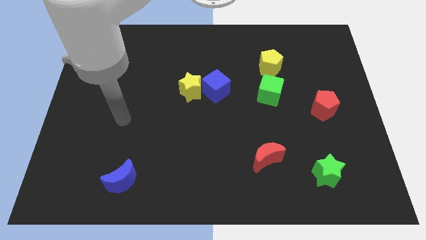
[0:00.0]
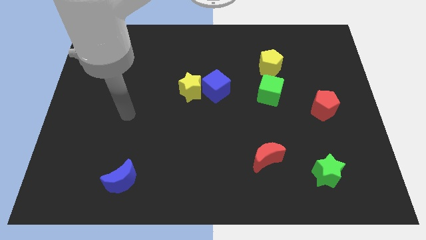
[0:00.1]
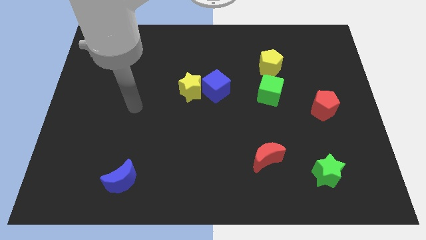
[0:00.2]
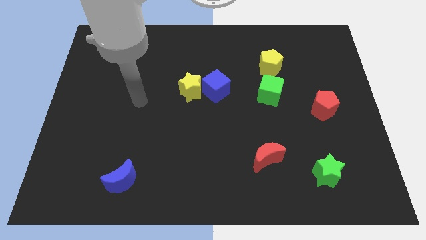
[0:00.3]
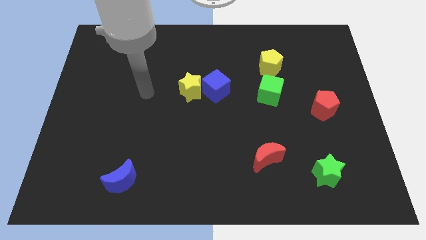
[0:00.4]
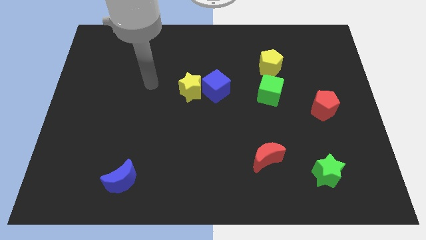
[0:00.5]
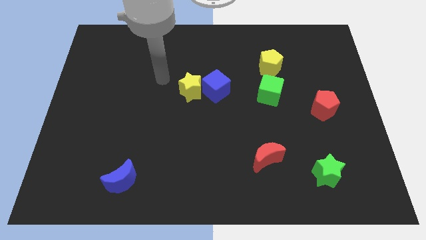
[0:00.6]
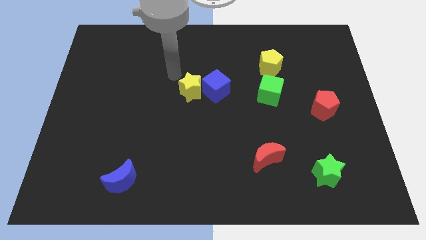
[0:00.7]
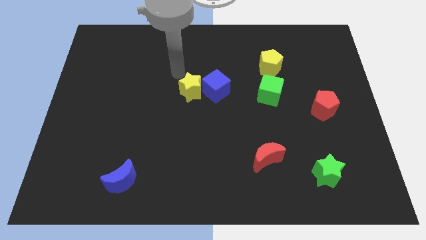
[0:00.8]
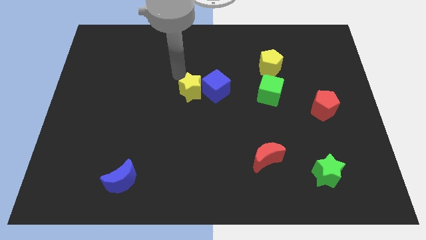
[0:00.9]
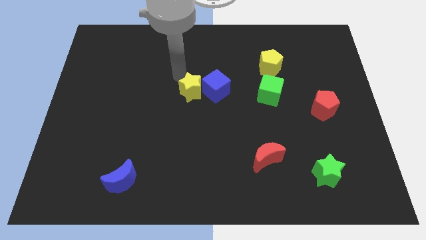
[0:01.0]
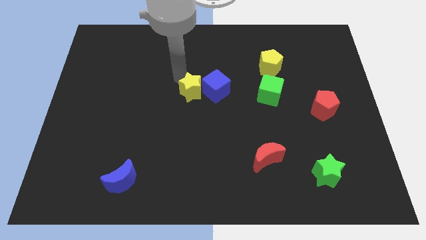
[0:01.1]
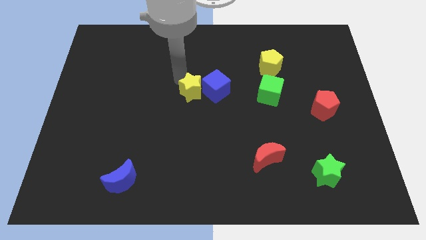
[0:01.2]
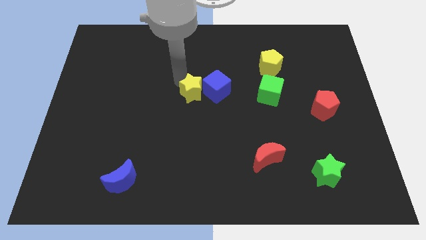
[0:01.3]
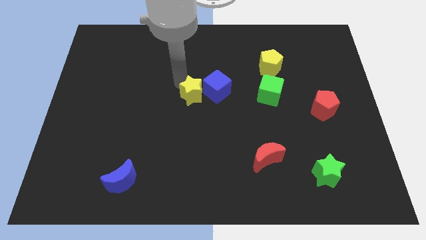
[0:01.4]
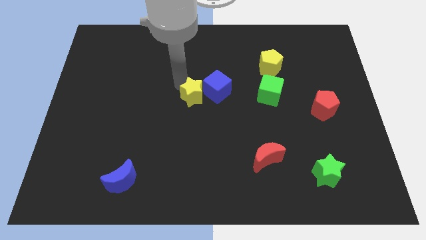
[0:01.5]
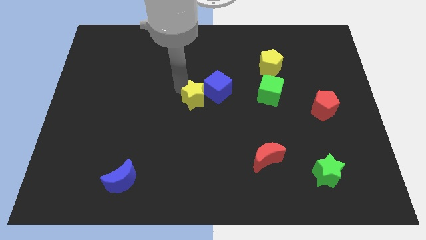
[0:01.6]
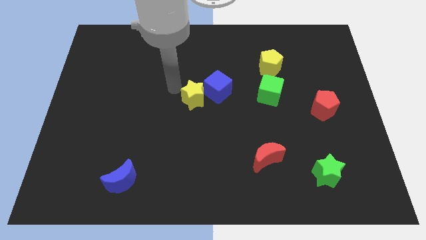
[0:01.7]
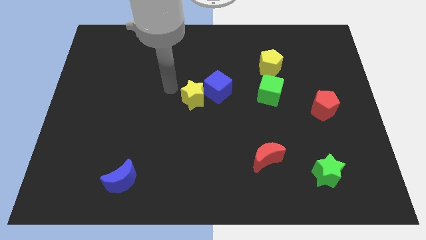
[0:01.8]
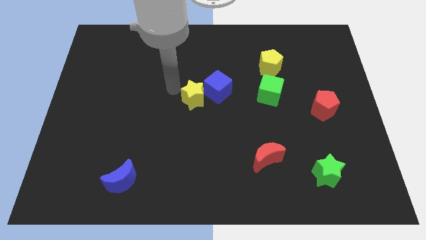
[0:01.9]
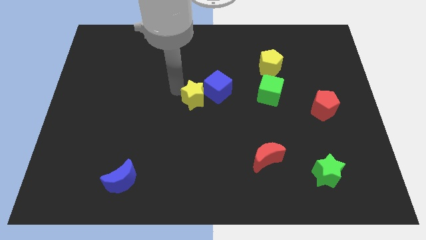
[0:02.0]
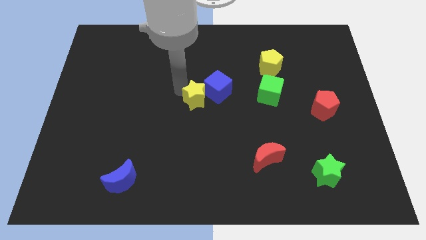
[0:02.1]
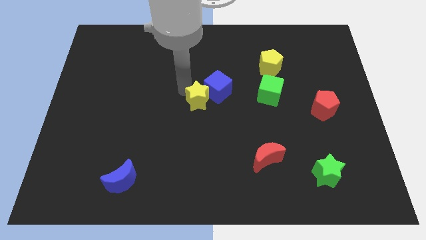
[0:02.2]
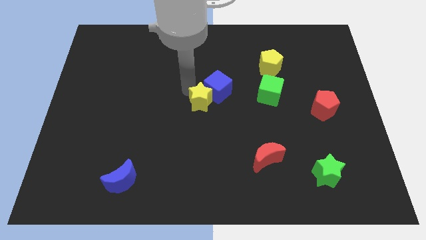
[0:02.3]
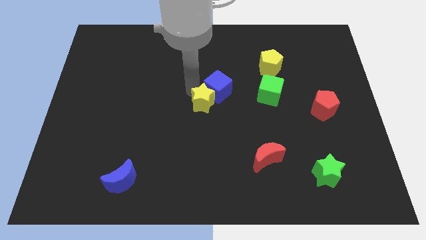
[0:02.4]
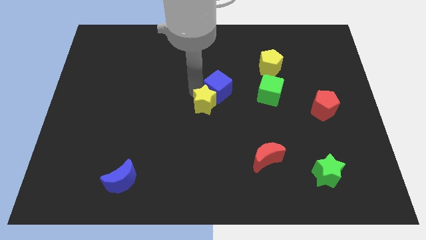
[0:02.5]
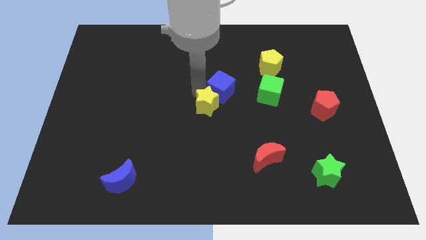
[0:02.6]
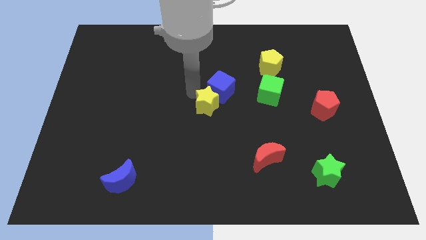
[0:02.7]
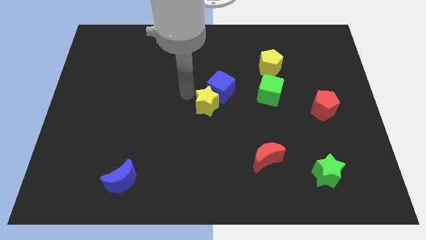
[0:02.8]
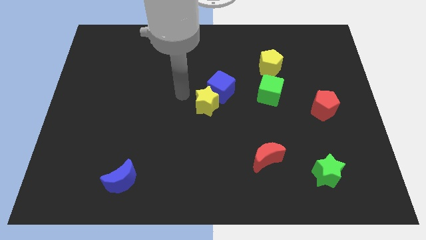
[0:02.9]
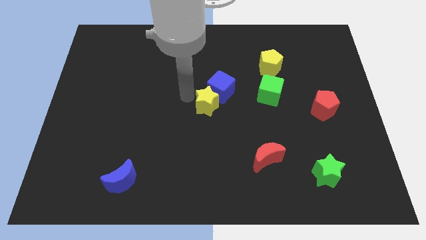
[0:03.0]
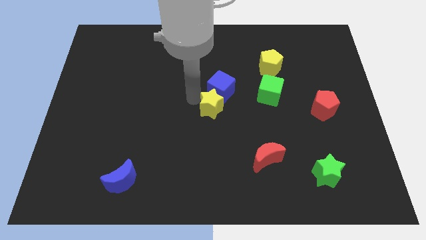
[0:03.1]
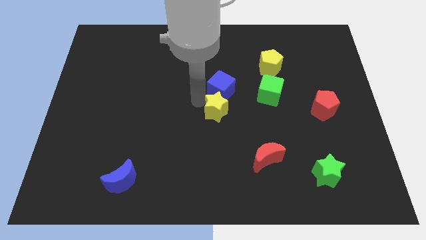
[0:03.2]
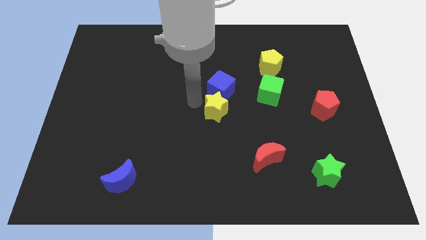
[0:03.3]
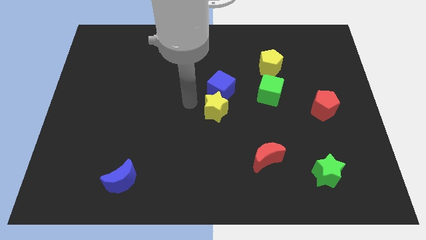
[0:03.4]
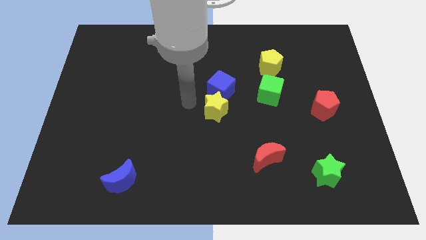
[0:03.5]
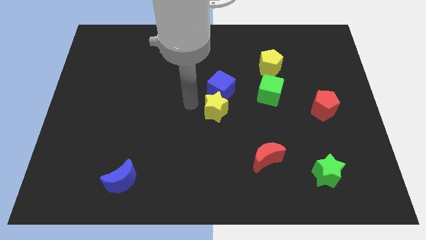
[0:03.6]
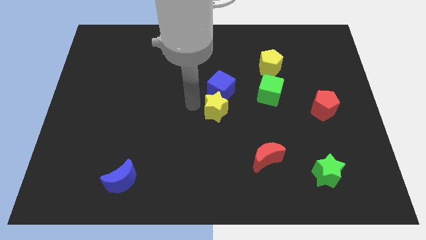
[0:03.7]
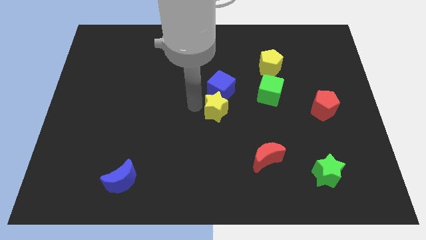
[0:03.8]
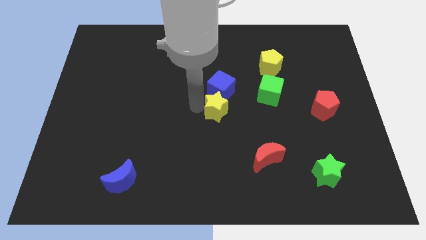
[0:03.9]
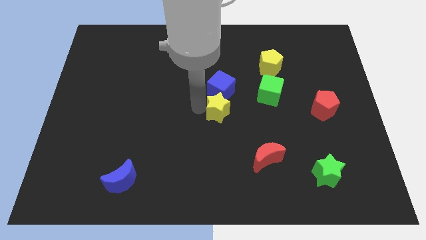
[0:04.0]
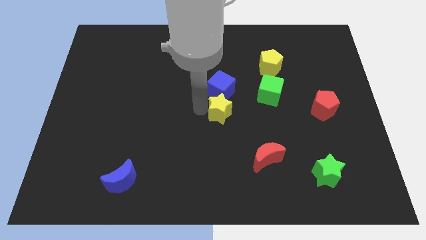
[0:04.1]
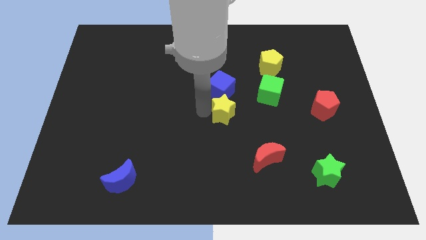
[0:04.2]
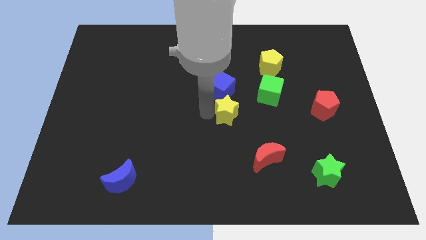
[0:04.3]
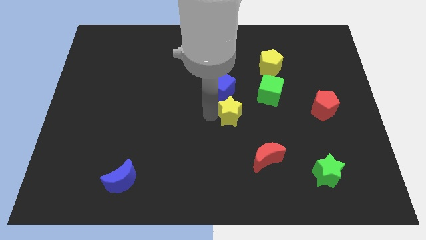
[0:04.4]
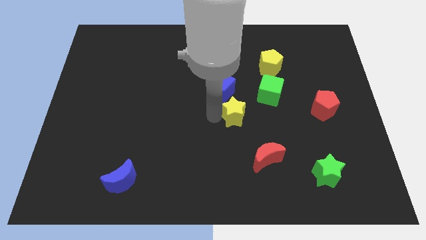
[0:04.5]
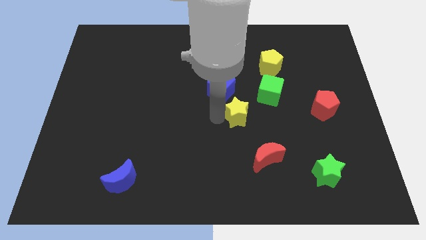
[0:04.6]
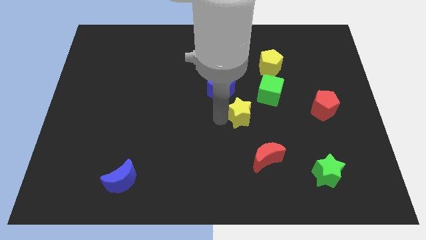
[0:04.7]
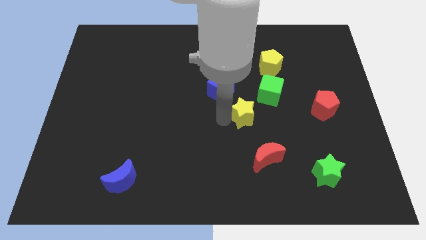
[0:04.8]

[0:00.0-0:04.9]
slide the yellow star to the top side of the red moon

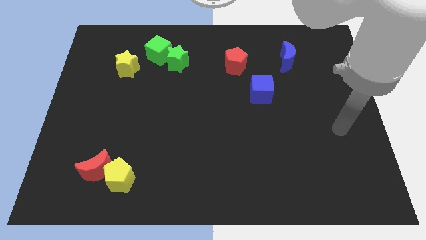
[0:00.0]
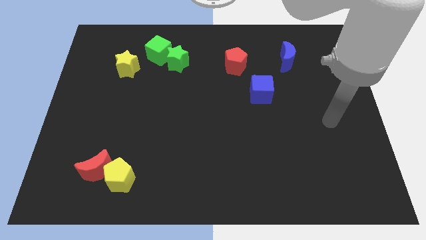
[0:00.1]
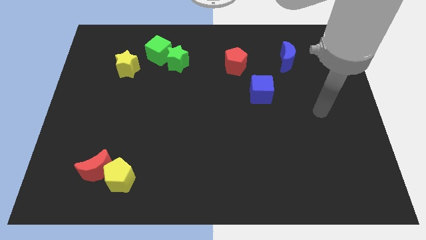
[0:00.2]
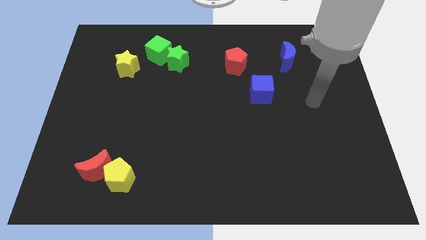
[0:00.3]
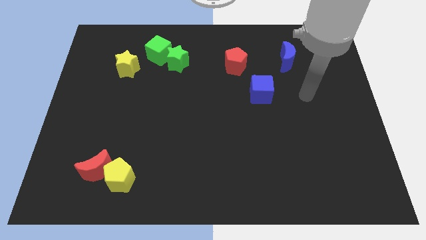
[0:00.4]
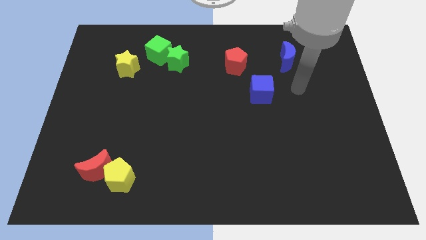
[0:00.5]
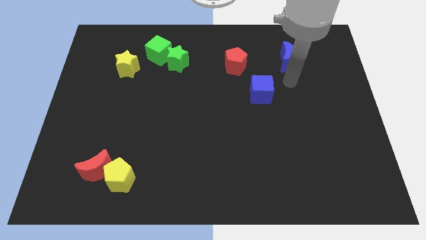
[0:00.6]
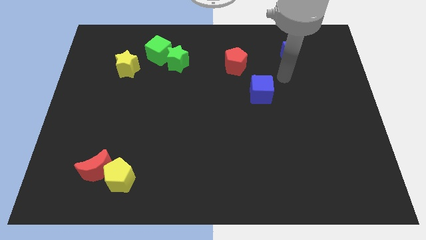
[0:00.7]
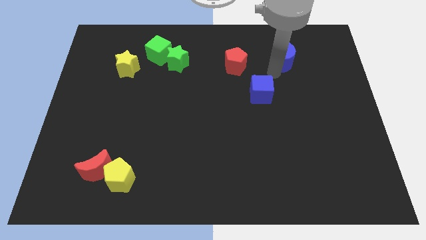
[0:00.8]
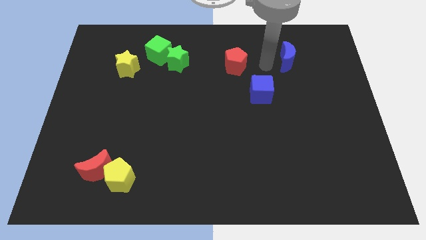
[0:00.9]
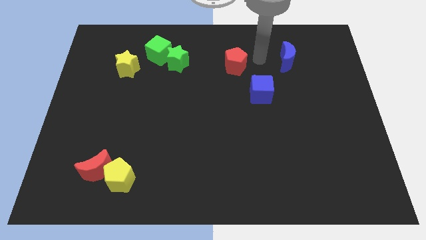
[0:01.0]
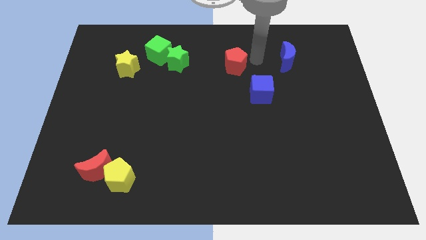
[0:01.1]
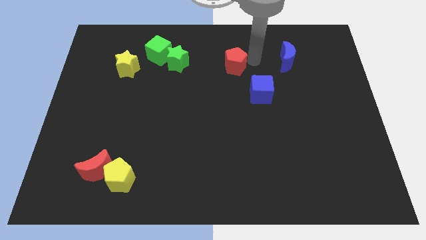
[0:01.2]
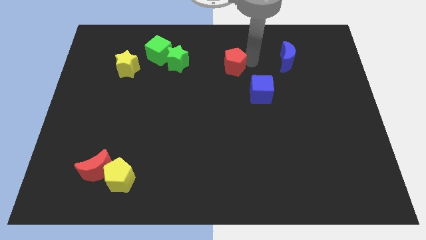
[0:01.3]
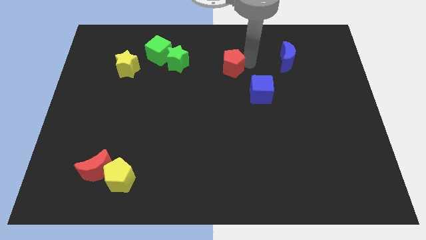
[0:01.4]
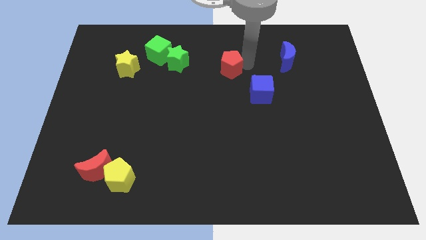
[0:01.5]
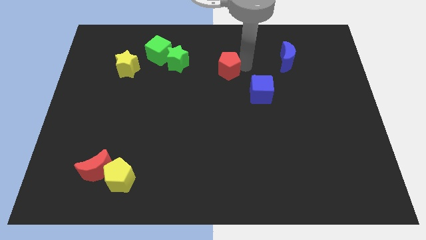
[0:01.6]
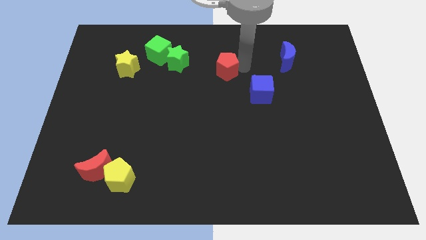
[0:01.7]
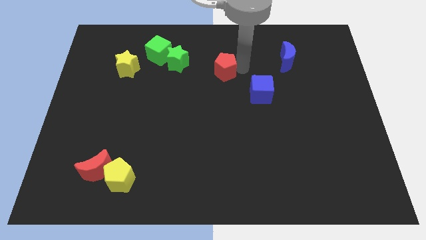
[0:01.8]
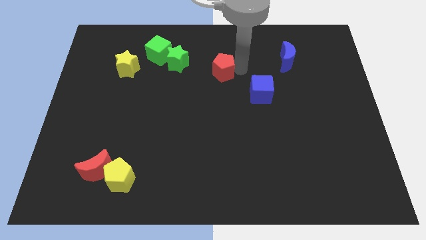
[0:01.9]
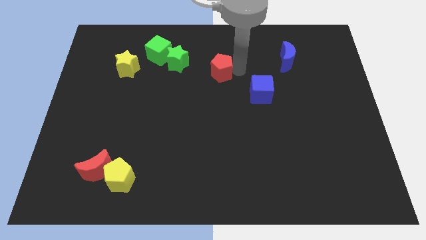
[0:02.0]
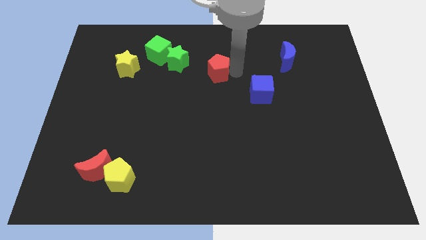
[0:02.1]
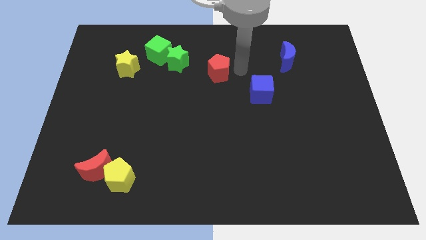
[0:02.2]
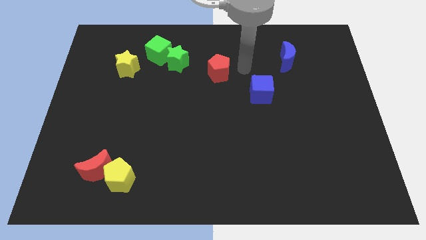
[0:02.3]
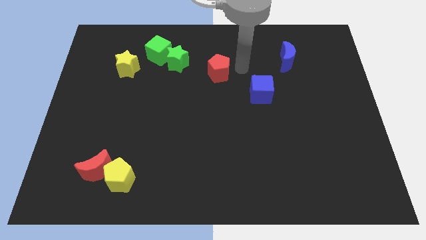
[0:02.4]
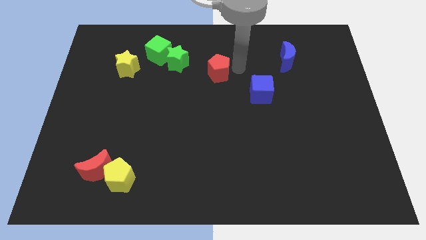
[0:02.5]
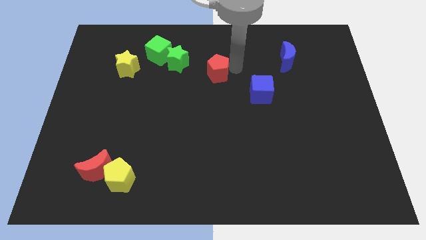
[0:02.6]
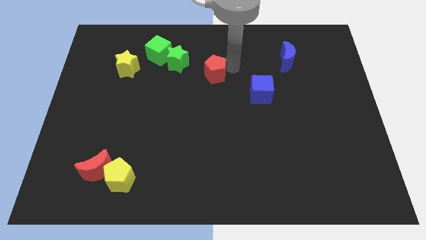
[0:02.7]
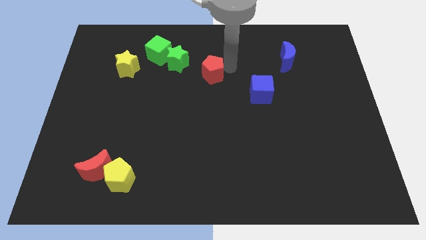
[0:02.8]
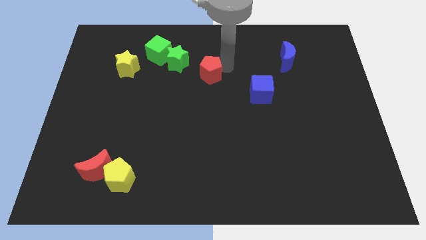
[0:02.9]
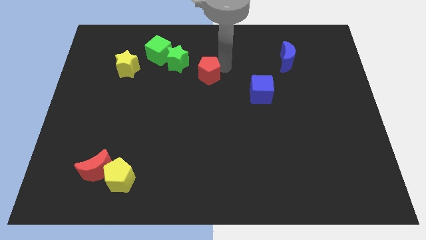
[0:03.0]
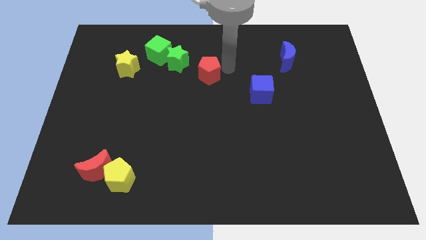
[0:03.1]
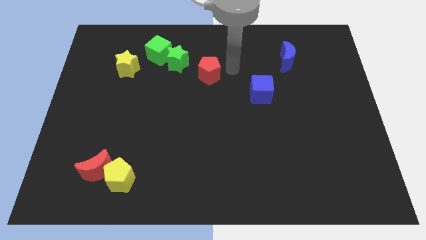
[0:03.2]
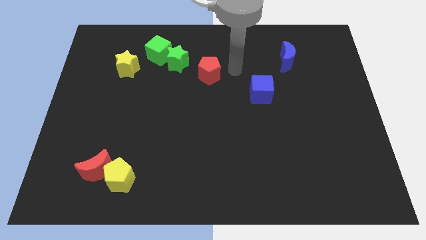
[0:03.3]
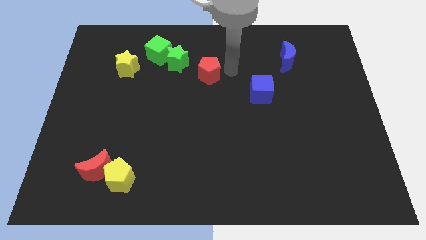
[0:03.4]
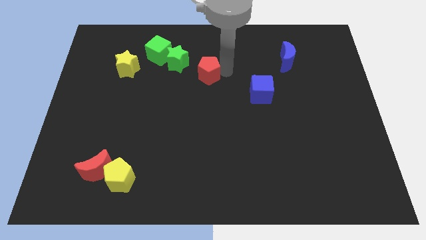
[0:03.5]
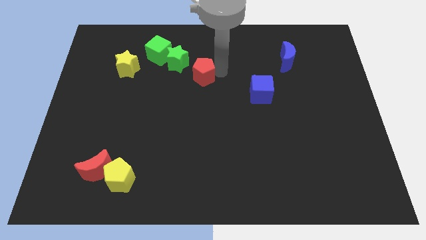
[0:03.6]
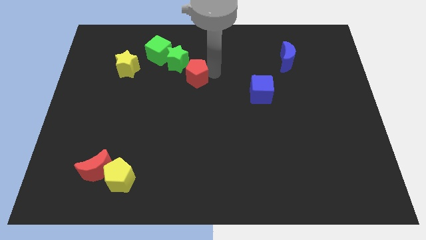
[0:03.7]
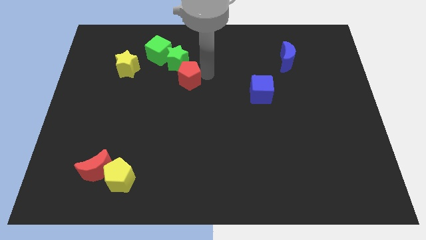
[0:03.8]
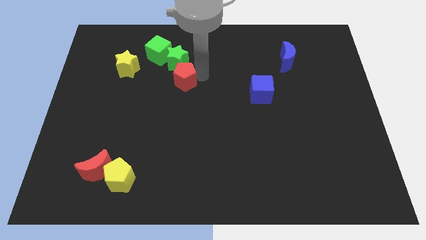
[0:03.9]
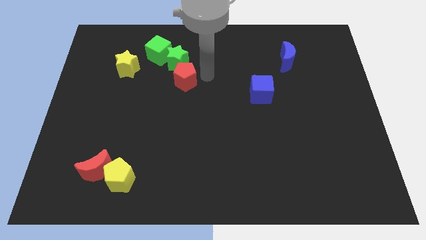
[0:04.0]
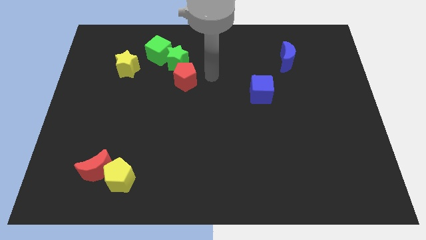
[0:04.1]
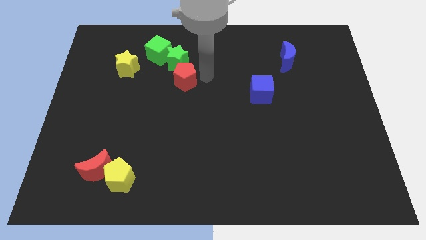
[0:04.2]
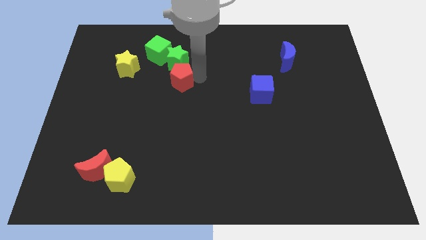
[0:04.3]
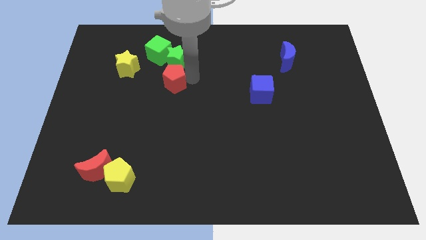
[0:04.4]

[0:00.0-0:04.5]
push the red pentagon below the green cube
